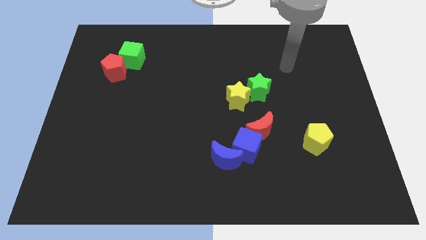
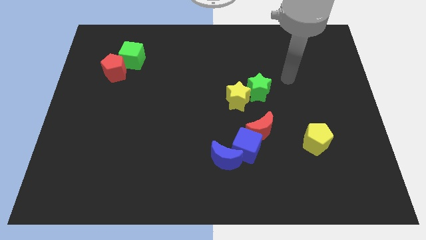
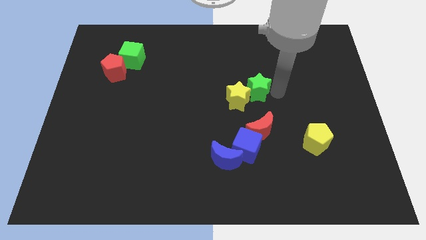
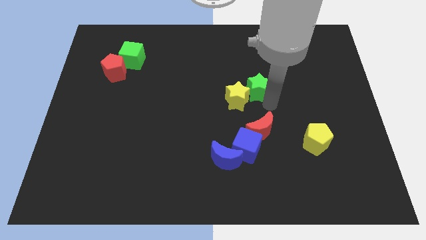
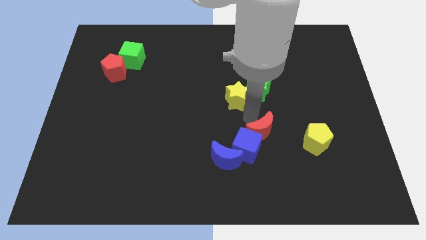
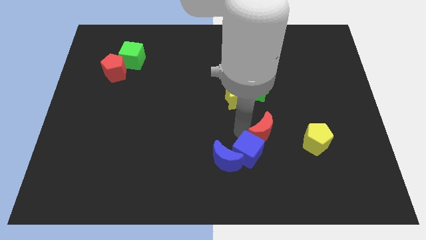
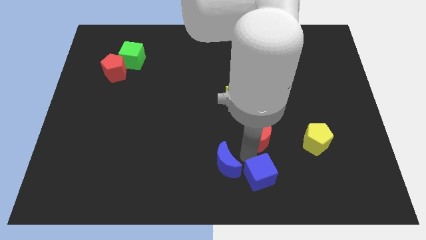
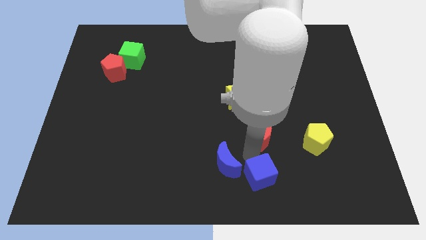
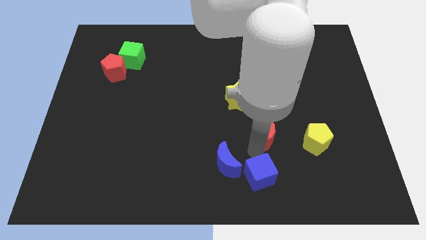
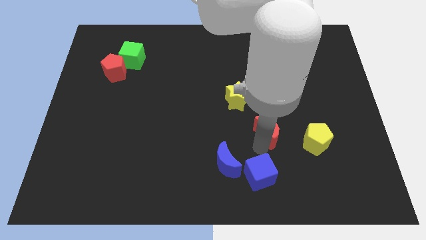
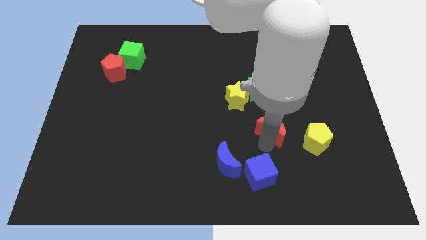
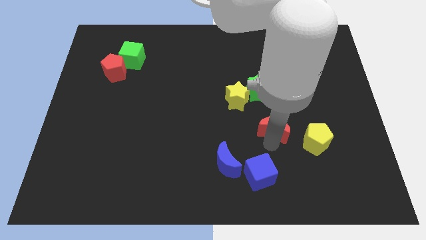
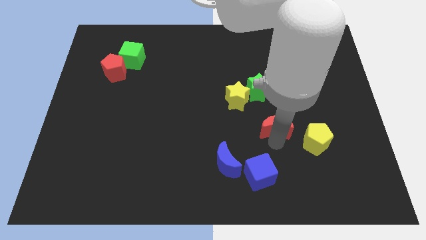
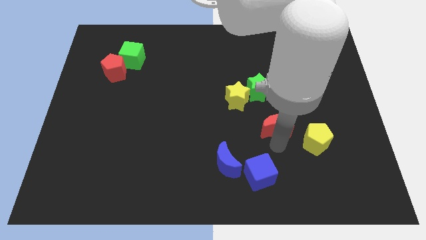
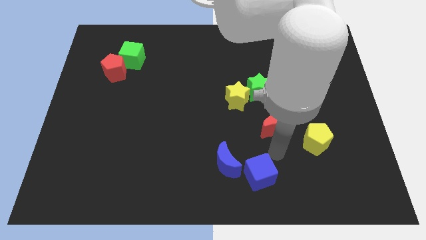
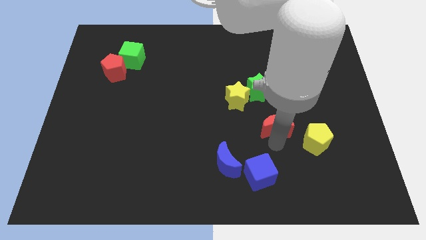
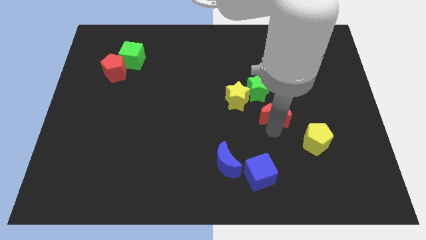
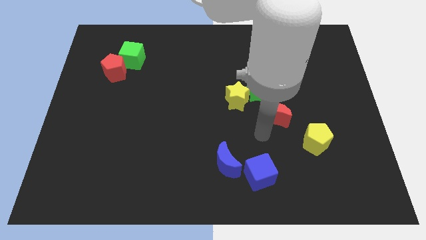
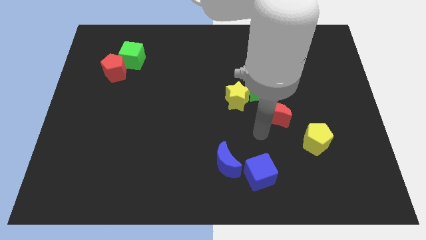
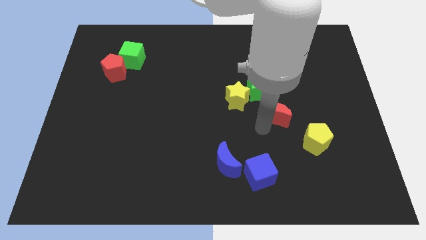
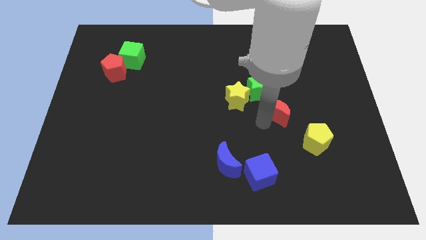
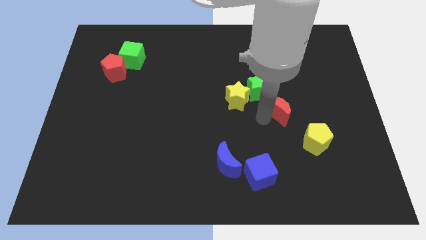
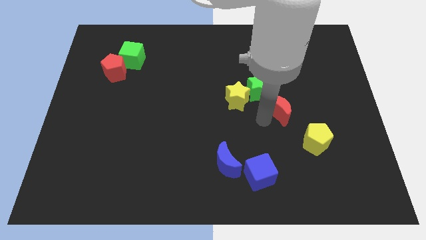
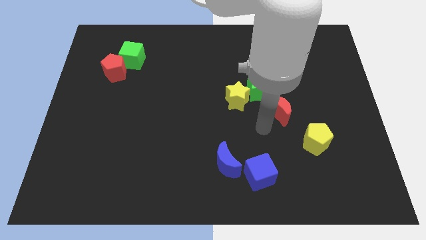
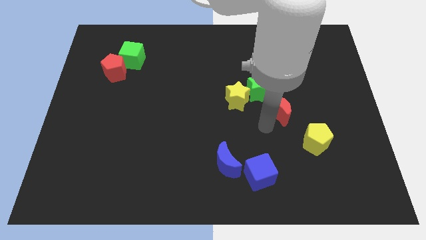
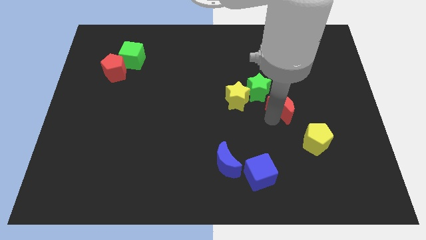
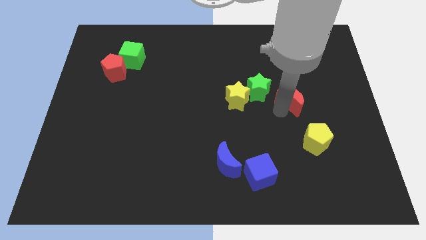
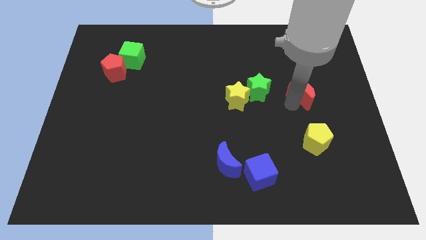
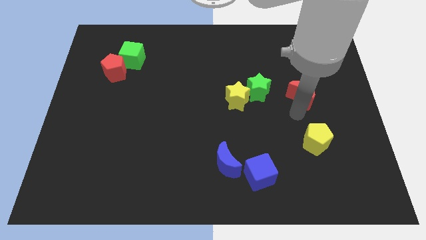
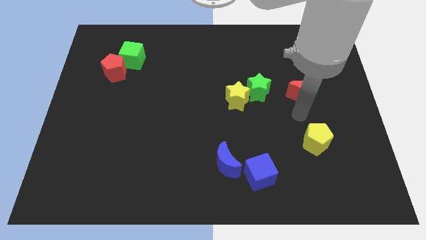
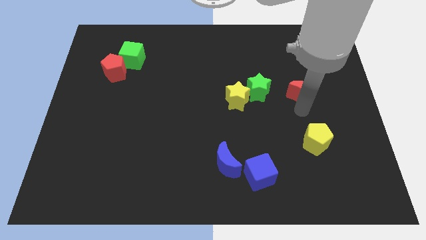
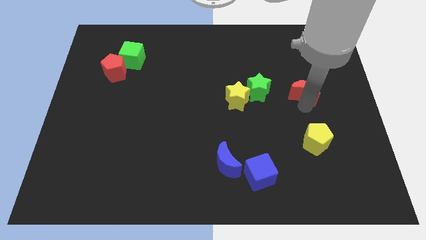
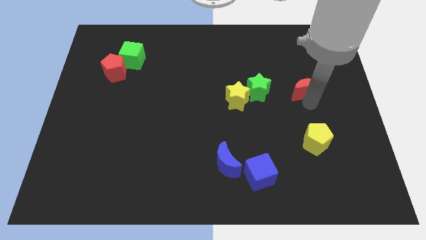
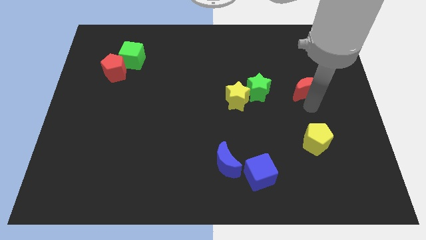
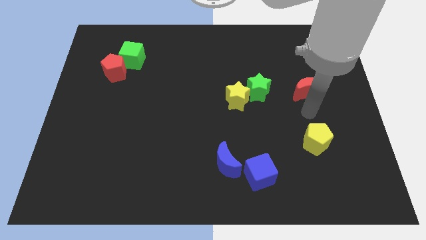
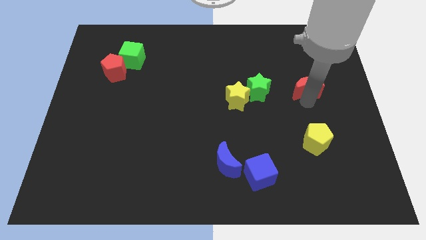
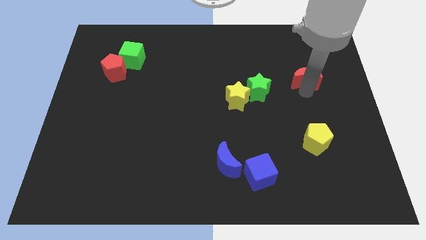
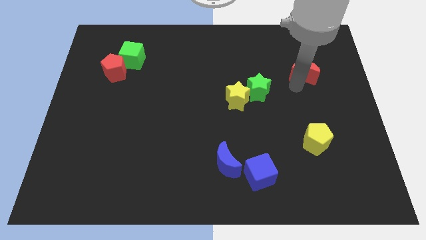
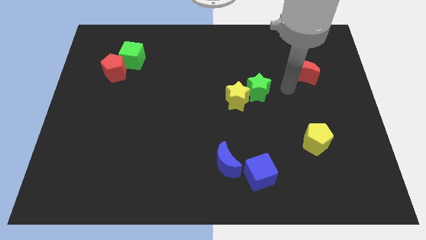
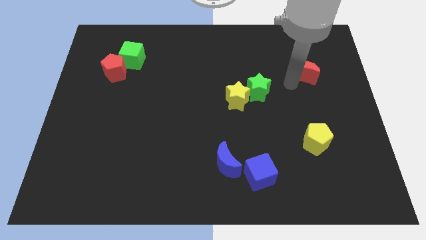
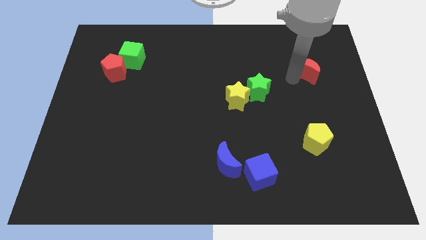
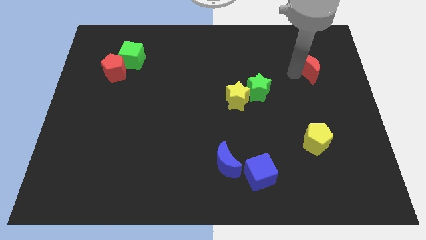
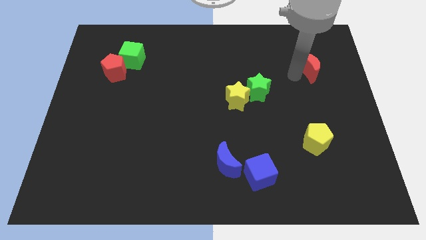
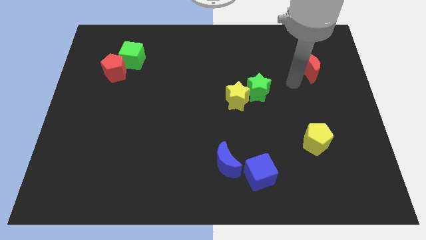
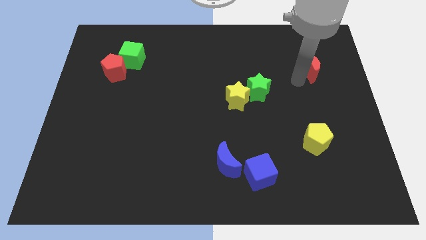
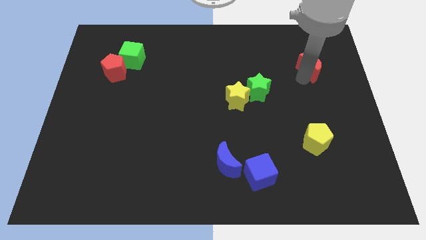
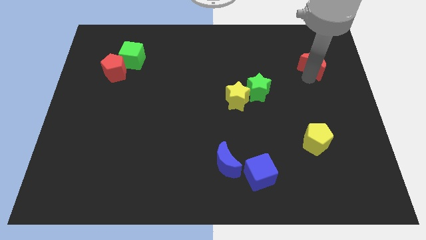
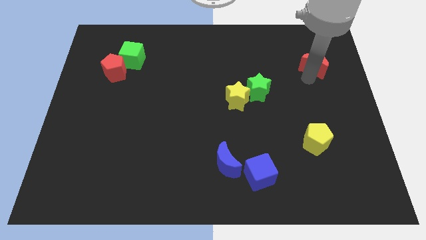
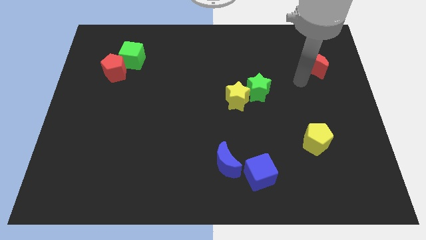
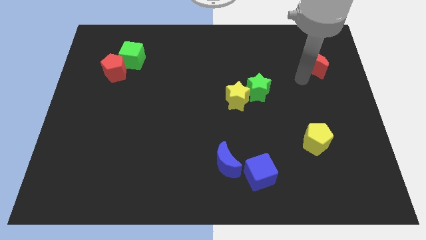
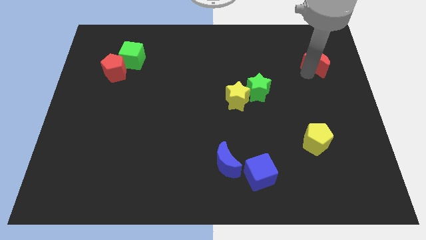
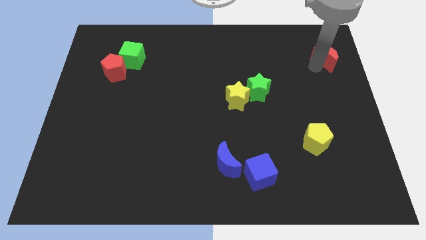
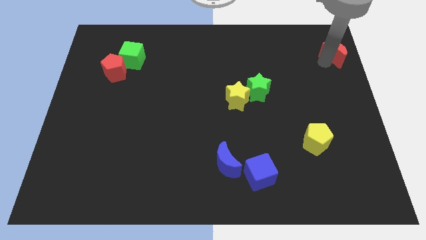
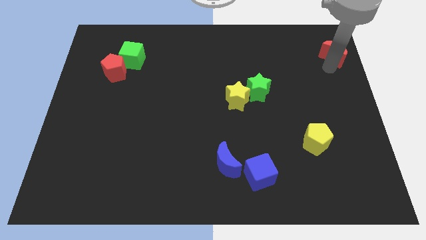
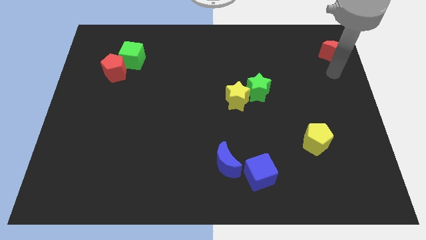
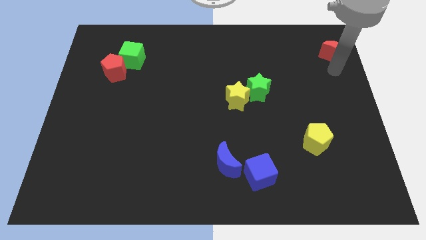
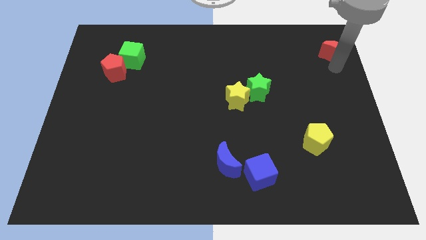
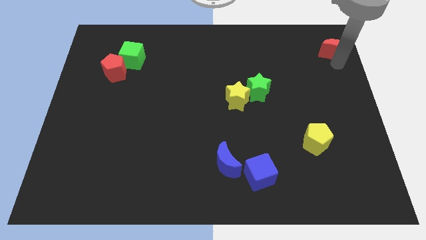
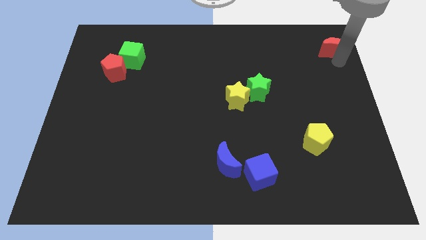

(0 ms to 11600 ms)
push the red moon to the upper right corner

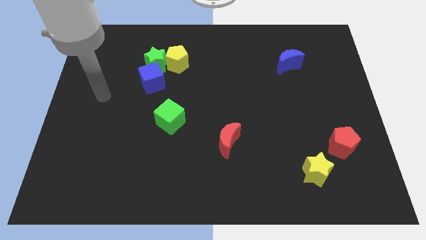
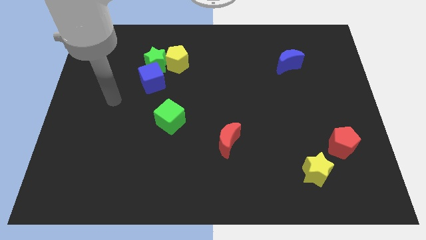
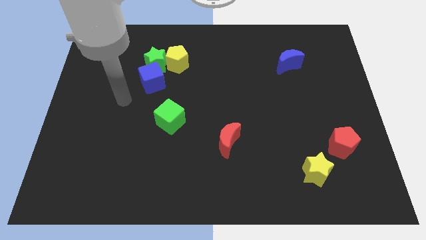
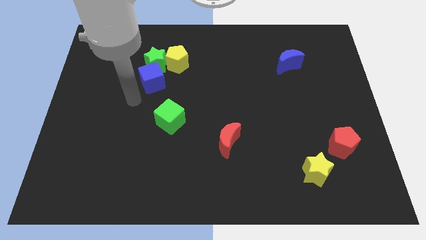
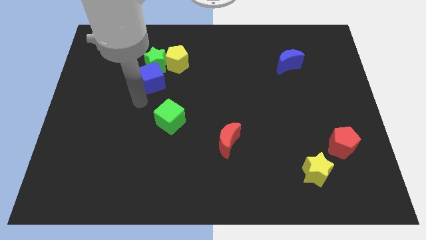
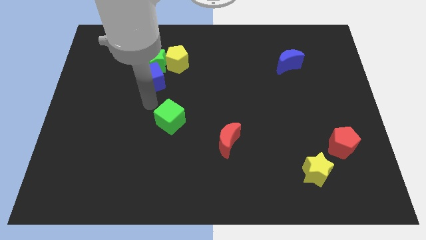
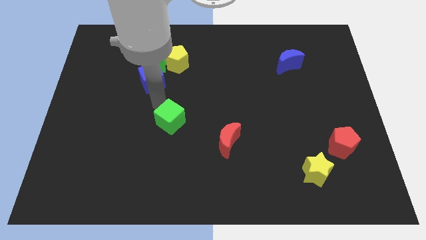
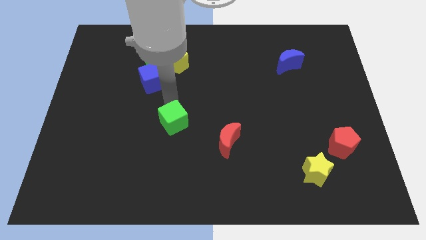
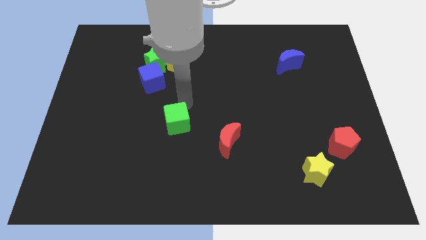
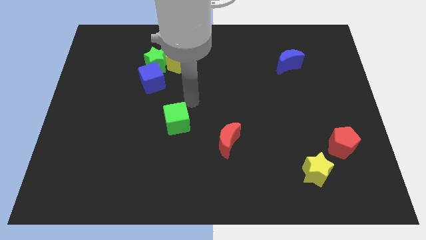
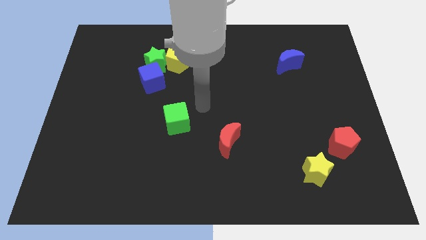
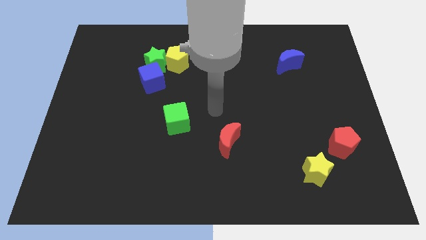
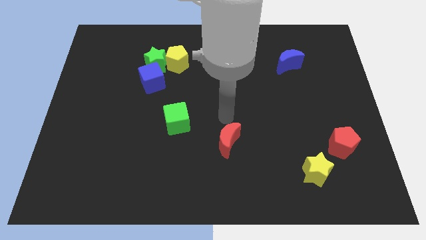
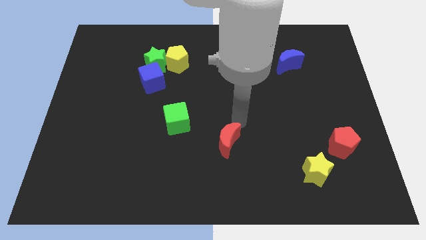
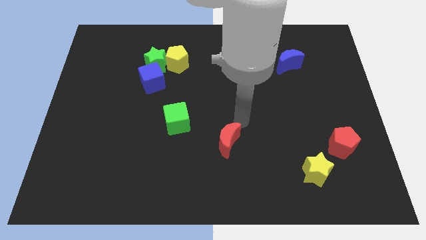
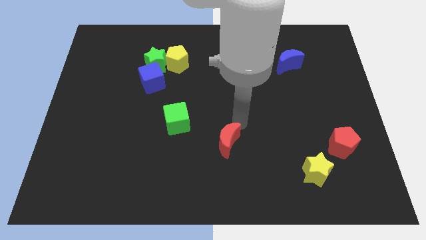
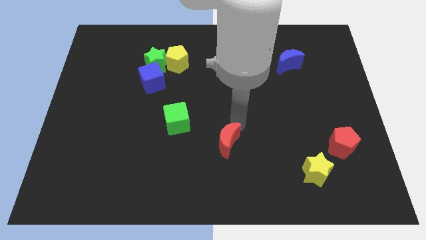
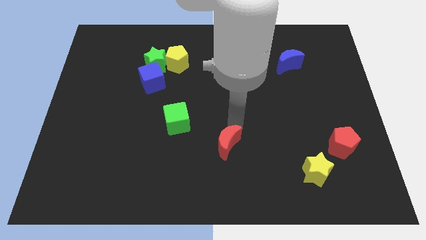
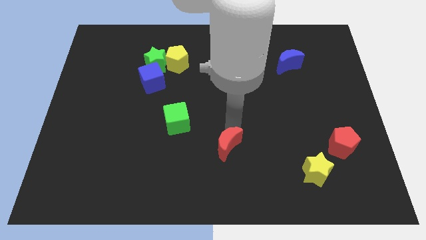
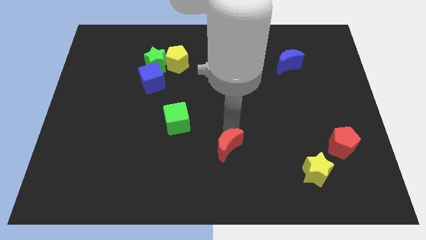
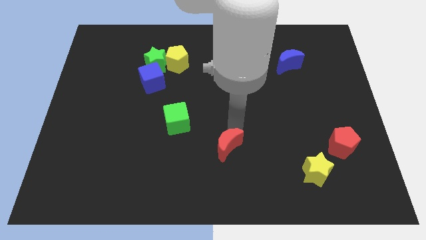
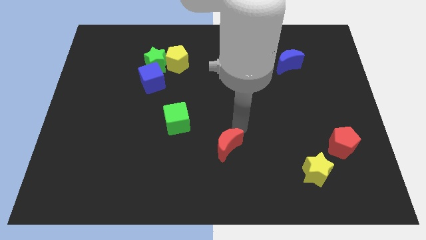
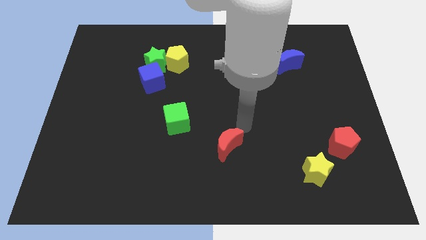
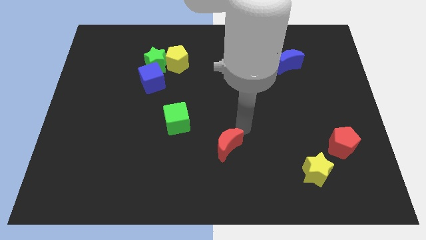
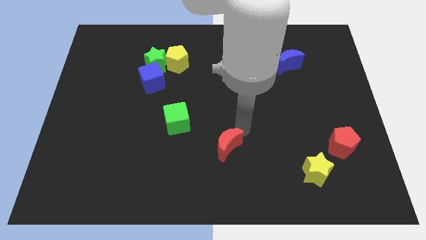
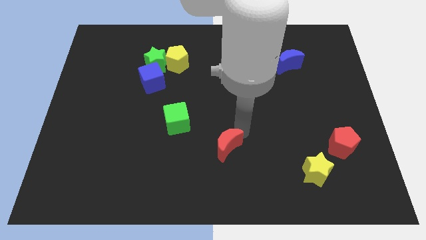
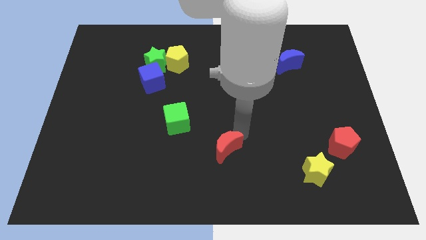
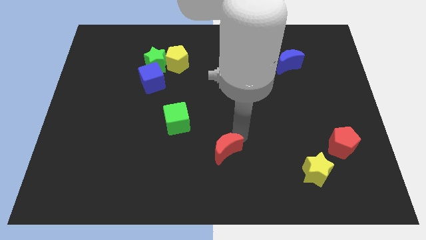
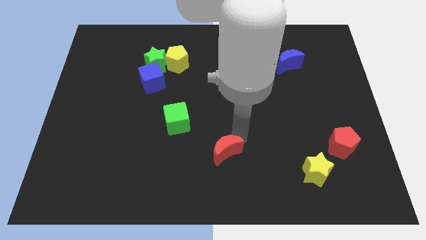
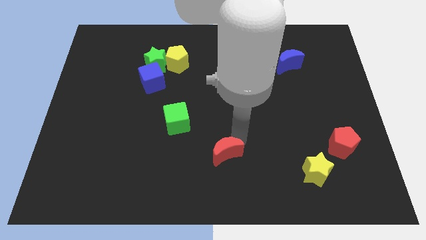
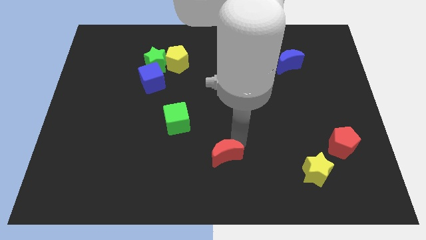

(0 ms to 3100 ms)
slide the red moon to the bottom side
